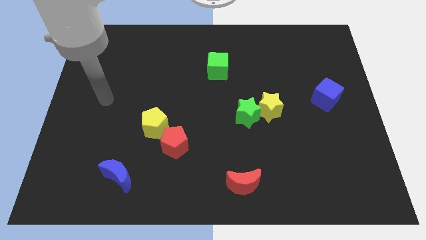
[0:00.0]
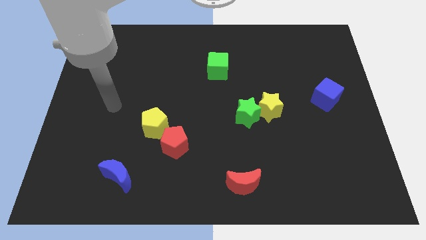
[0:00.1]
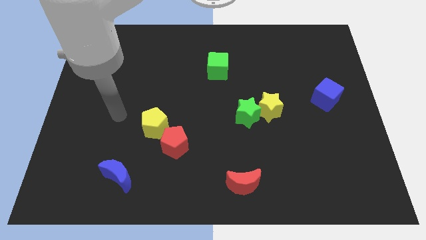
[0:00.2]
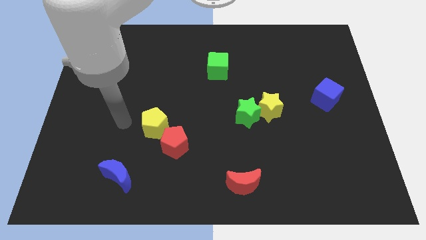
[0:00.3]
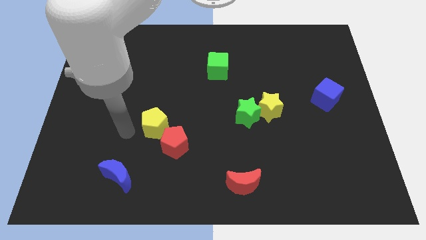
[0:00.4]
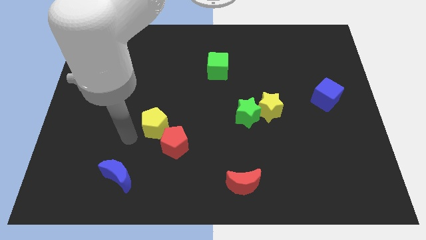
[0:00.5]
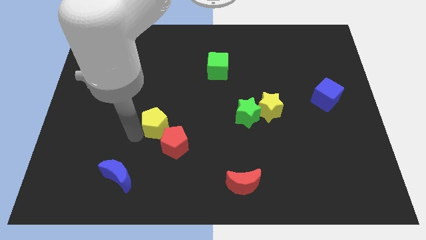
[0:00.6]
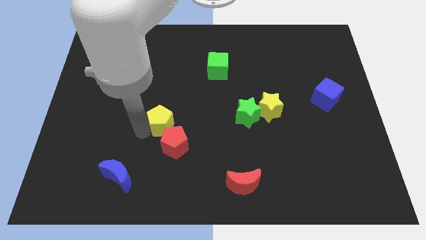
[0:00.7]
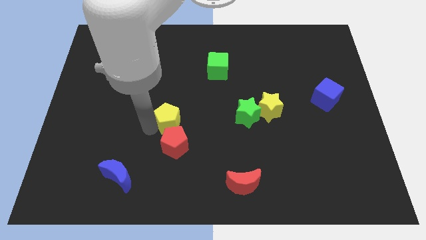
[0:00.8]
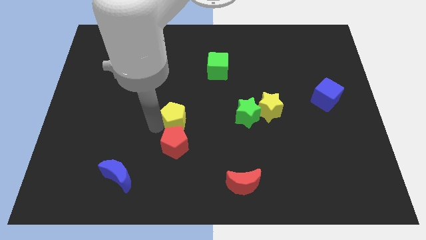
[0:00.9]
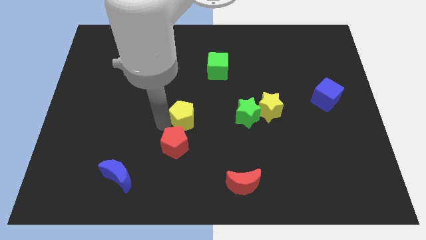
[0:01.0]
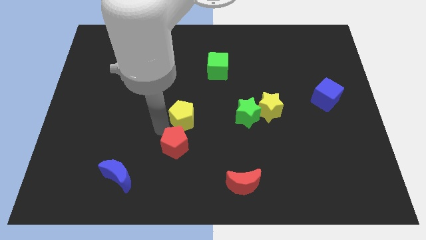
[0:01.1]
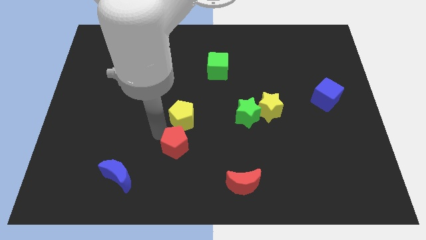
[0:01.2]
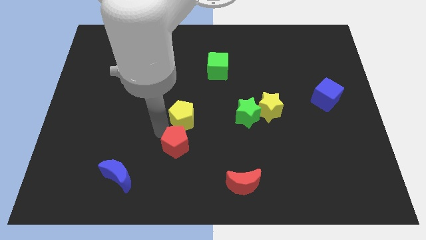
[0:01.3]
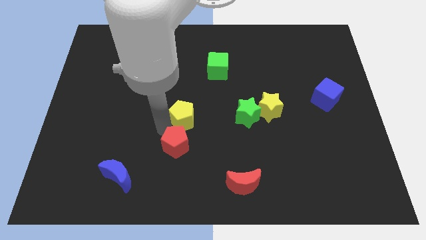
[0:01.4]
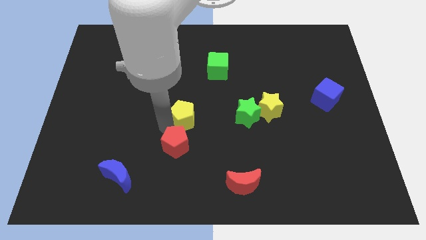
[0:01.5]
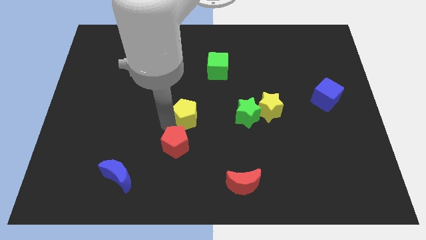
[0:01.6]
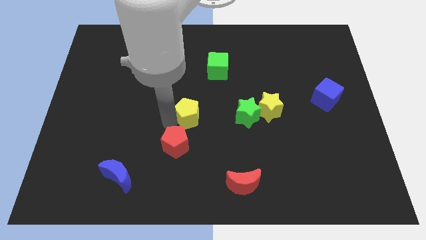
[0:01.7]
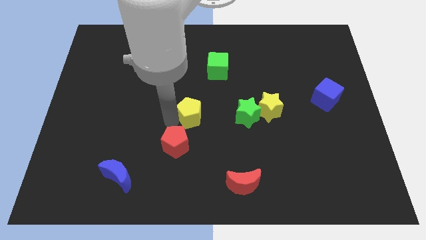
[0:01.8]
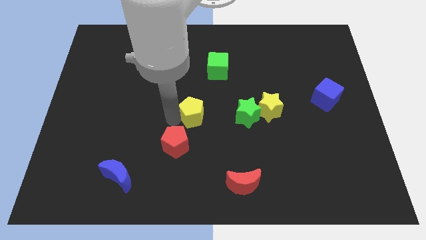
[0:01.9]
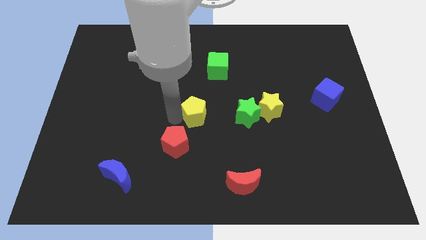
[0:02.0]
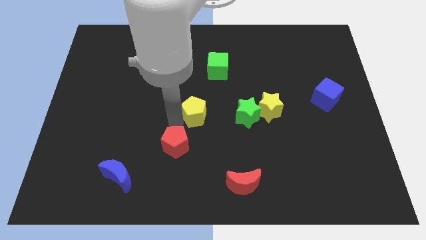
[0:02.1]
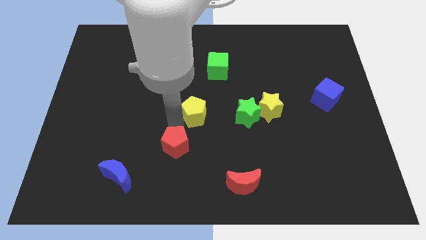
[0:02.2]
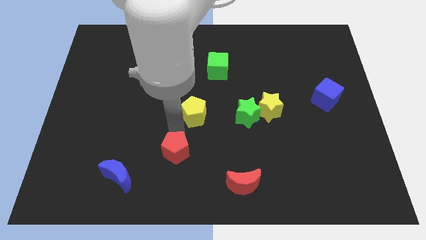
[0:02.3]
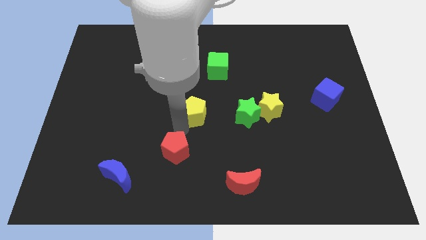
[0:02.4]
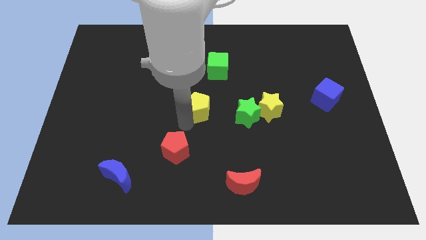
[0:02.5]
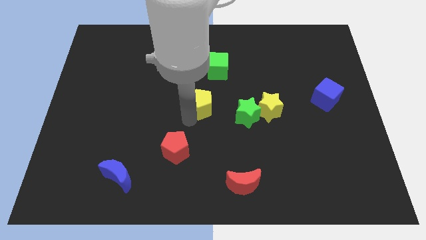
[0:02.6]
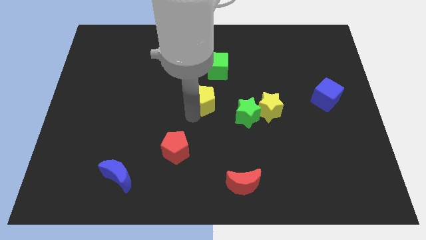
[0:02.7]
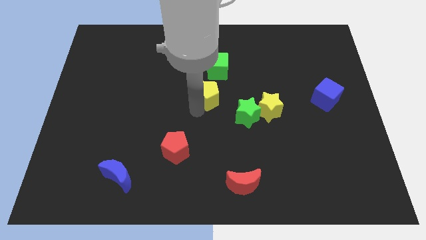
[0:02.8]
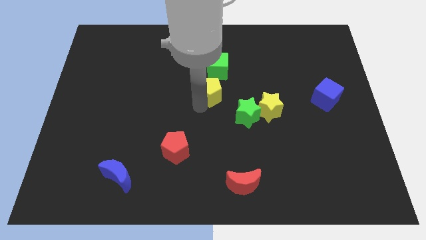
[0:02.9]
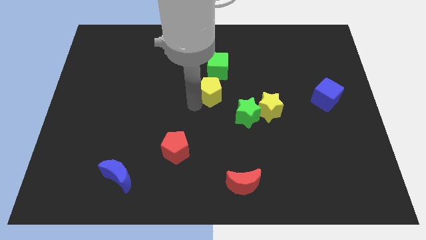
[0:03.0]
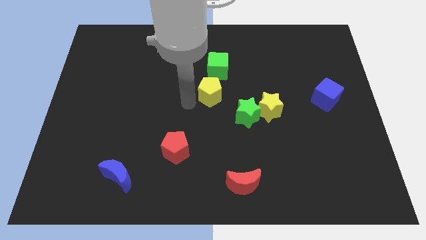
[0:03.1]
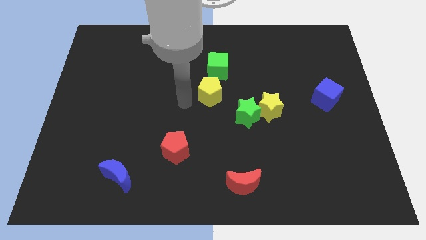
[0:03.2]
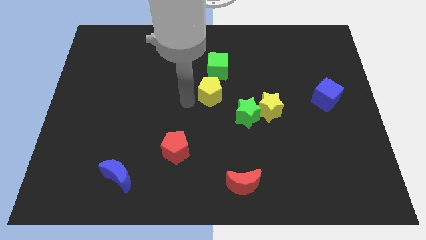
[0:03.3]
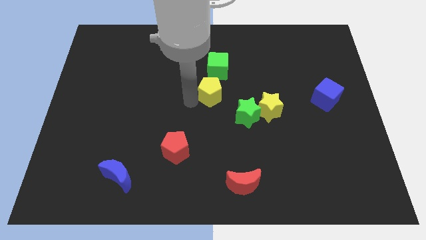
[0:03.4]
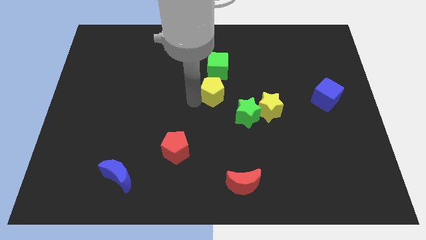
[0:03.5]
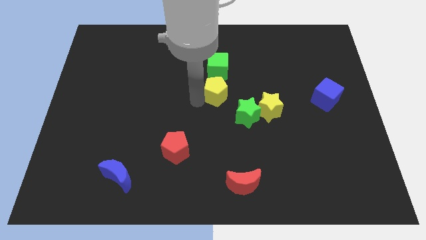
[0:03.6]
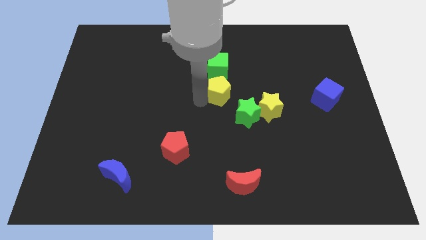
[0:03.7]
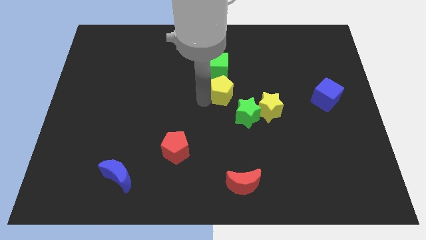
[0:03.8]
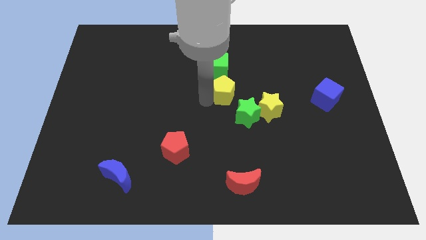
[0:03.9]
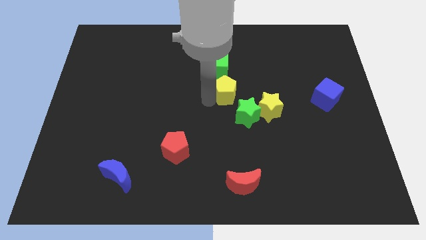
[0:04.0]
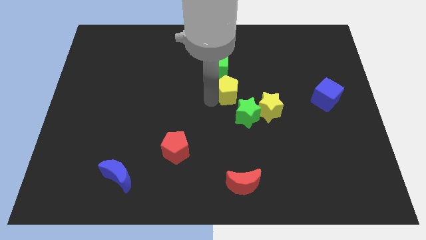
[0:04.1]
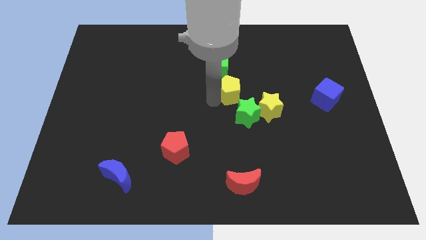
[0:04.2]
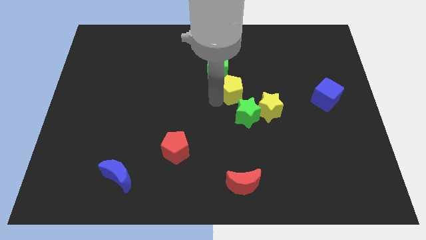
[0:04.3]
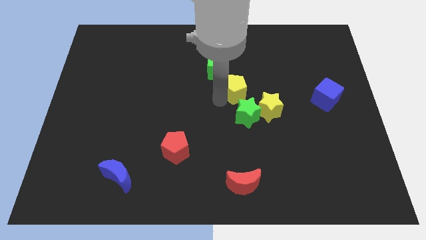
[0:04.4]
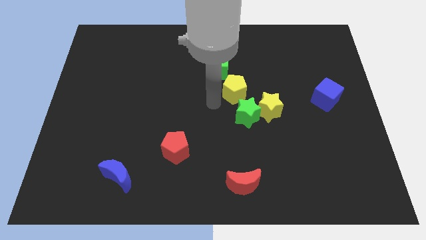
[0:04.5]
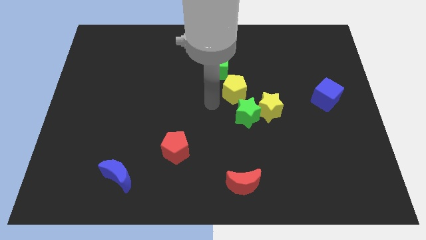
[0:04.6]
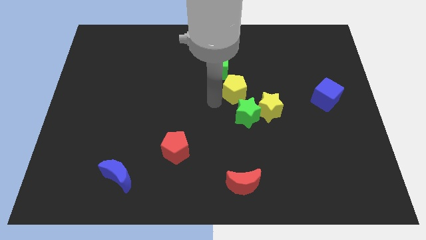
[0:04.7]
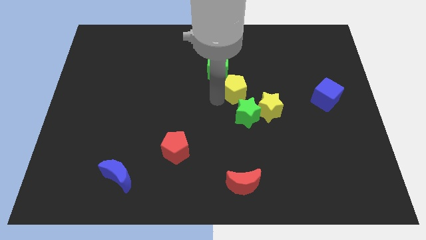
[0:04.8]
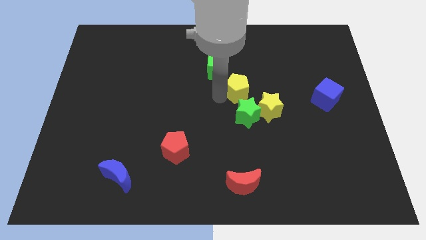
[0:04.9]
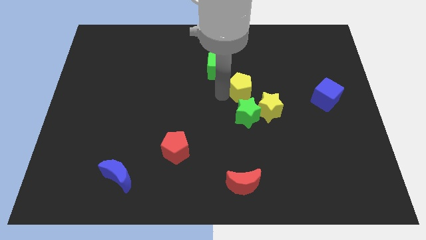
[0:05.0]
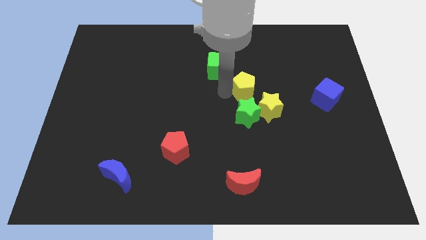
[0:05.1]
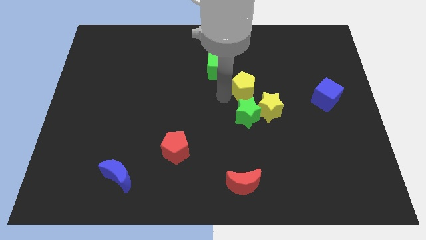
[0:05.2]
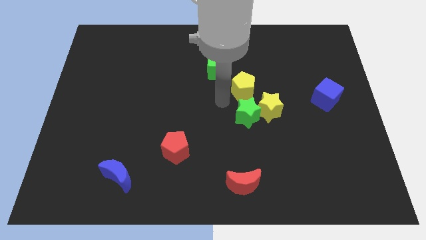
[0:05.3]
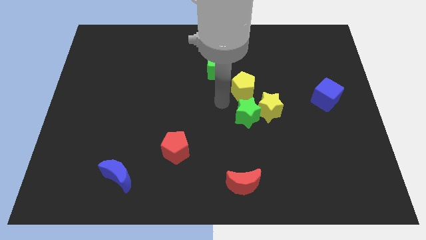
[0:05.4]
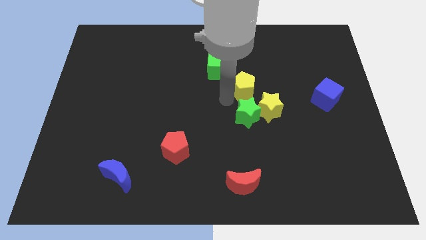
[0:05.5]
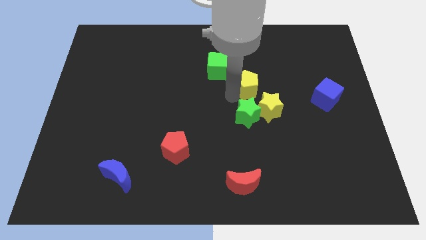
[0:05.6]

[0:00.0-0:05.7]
slide the yellow pentagon above the yellow star

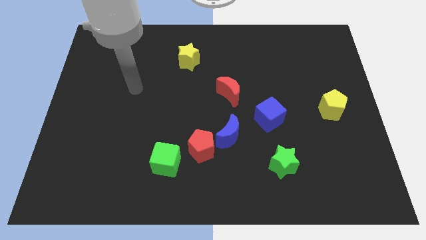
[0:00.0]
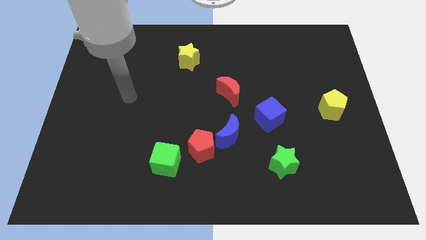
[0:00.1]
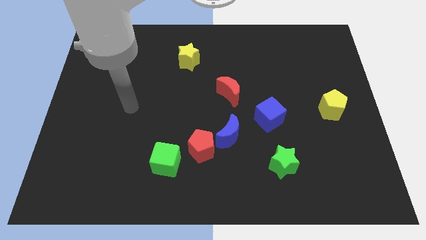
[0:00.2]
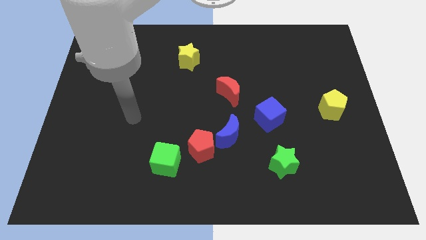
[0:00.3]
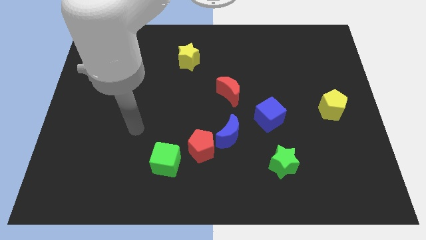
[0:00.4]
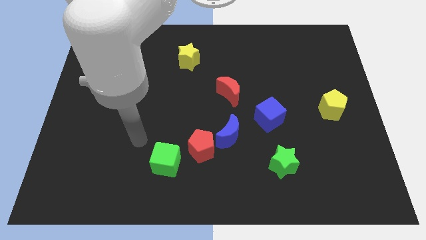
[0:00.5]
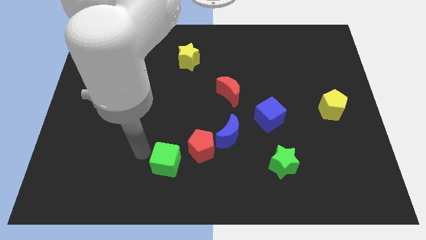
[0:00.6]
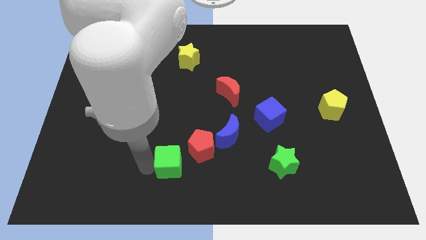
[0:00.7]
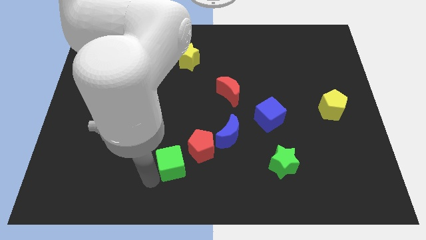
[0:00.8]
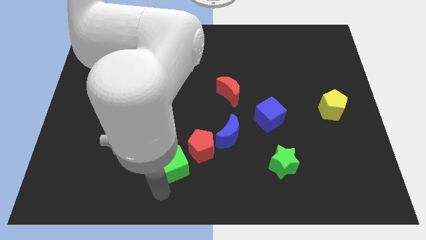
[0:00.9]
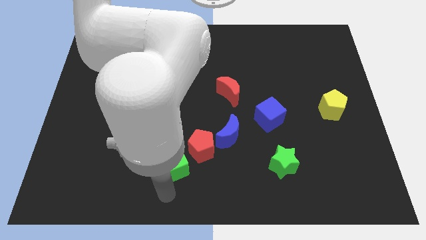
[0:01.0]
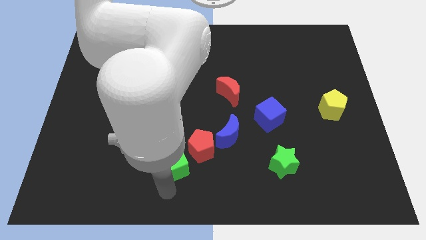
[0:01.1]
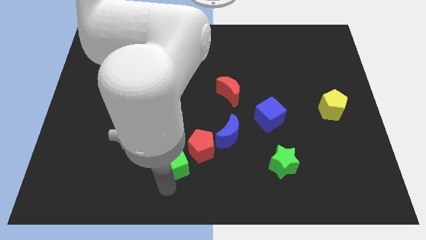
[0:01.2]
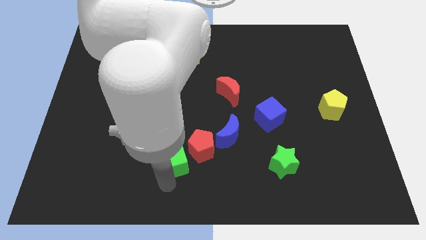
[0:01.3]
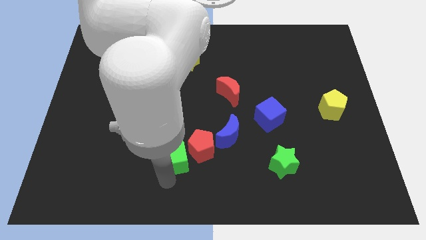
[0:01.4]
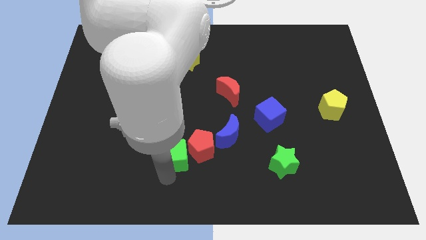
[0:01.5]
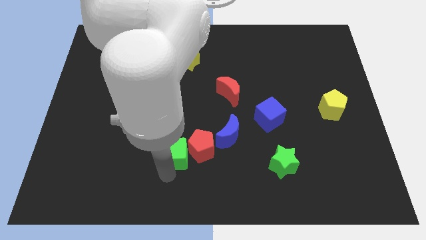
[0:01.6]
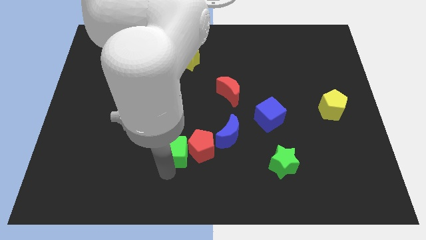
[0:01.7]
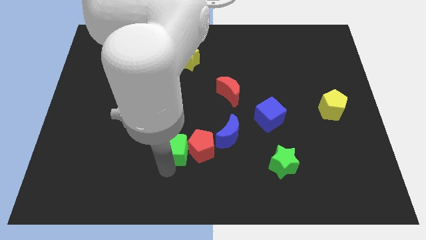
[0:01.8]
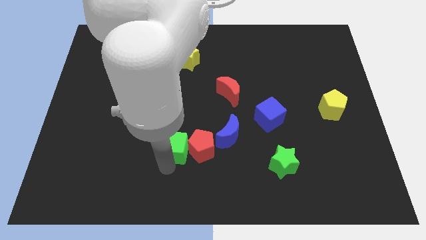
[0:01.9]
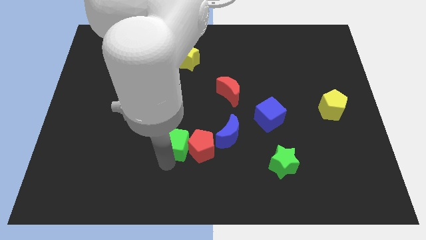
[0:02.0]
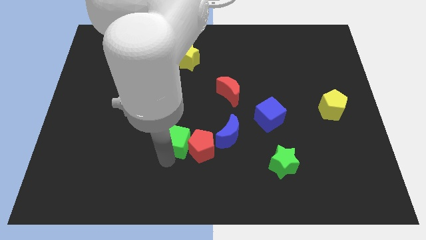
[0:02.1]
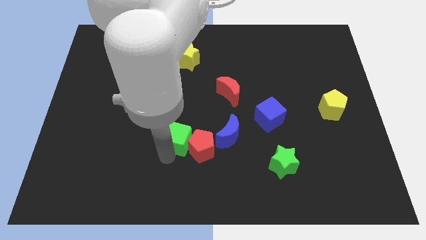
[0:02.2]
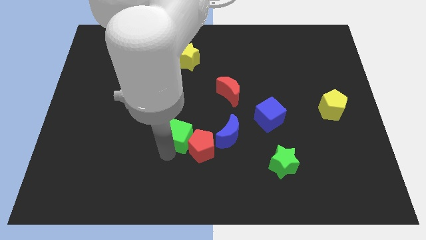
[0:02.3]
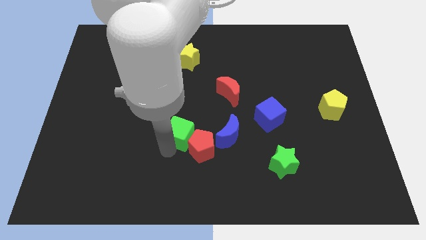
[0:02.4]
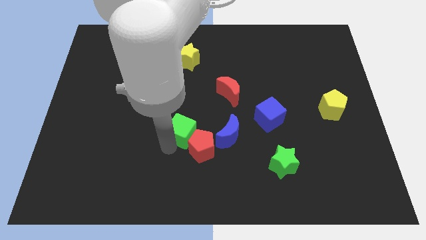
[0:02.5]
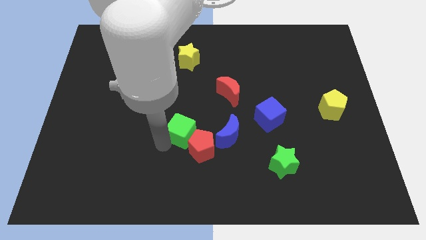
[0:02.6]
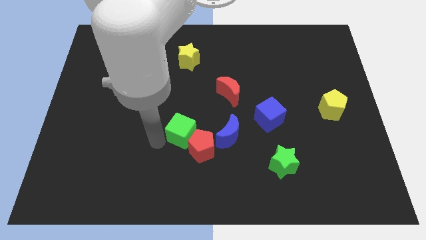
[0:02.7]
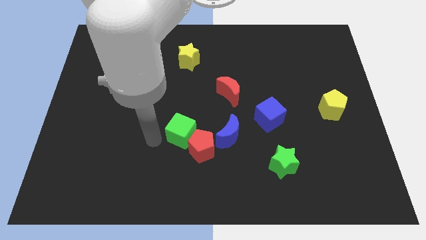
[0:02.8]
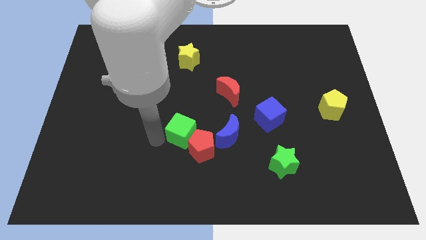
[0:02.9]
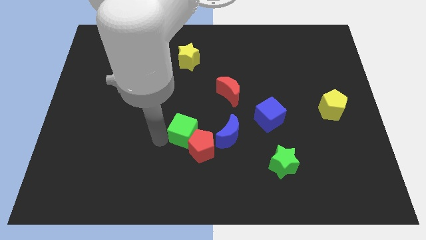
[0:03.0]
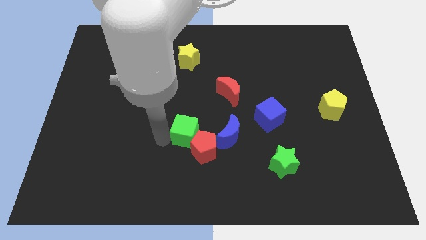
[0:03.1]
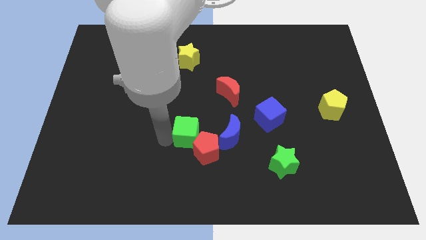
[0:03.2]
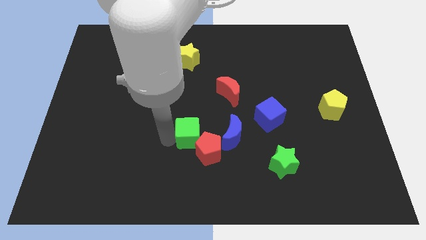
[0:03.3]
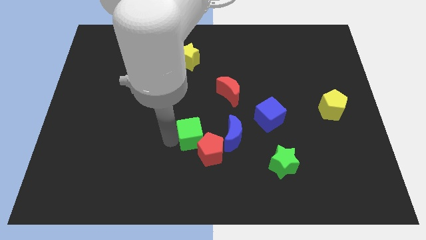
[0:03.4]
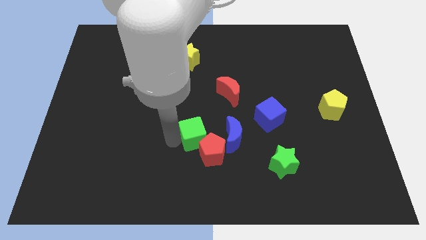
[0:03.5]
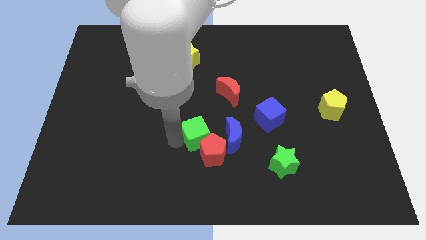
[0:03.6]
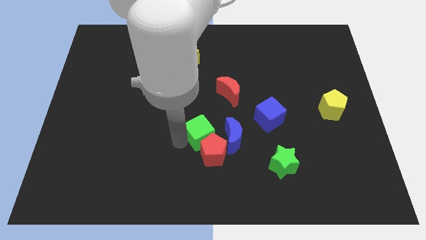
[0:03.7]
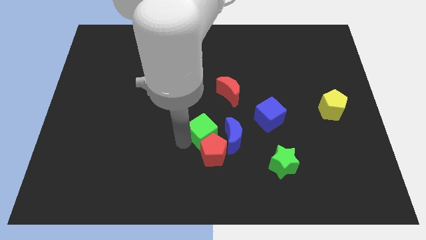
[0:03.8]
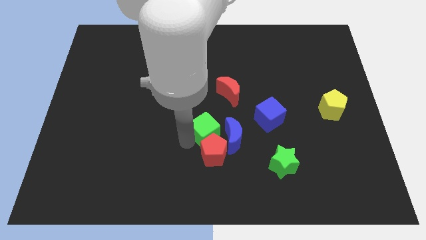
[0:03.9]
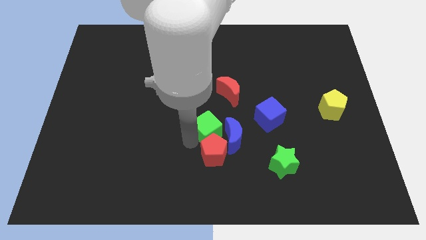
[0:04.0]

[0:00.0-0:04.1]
put the green cube to the left side of the blue cube
